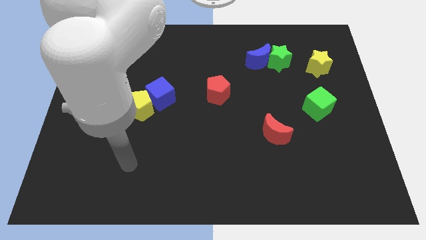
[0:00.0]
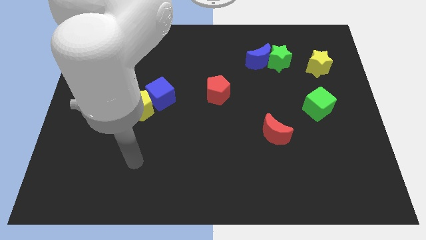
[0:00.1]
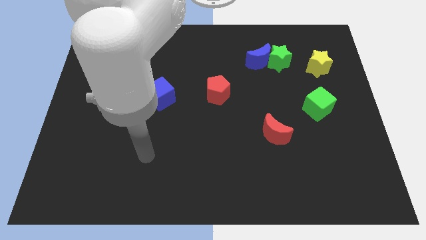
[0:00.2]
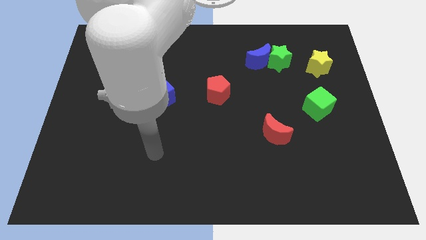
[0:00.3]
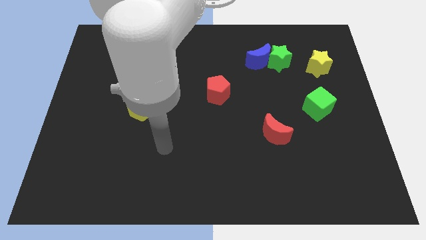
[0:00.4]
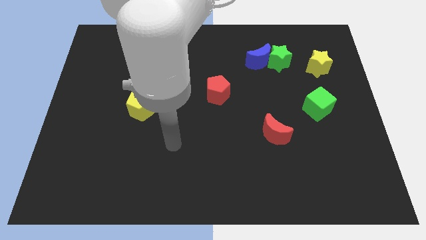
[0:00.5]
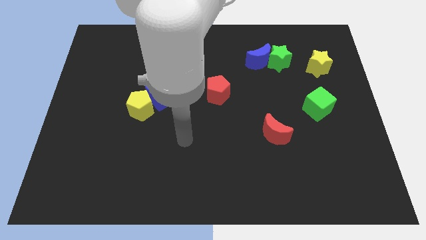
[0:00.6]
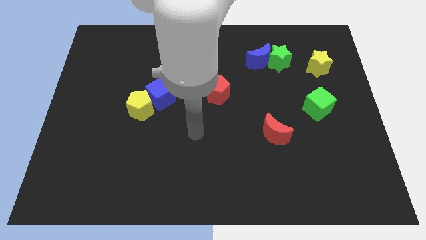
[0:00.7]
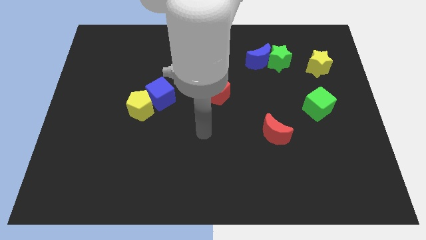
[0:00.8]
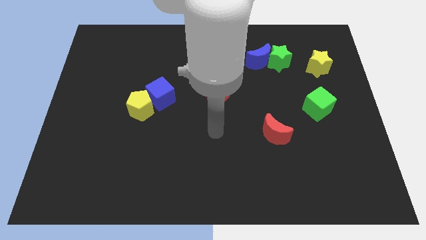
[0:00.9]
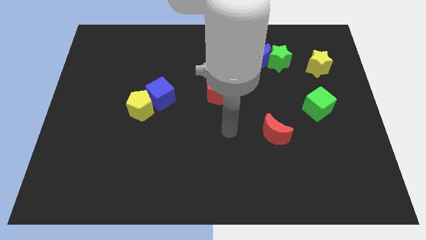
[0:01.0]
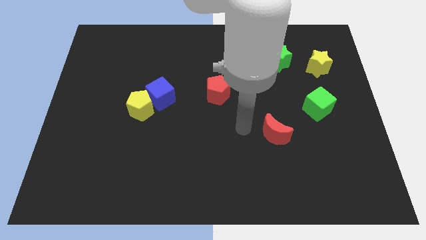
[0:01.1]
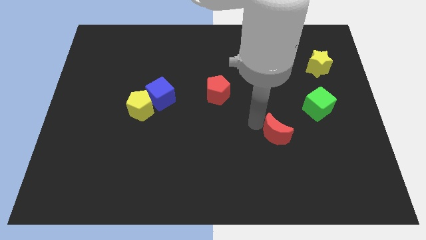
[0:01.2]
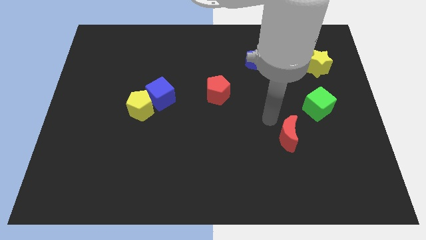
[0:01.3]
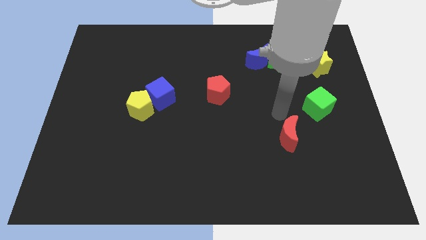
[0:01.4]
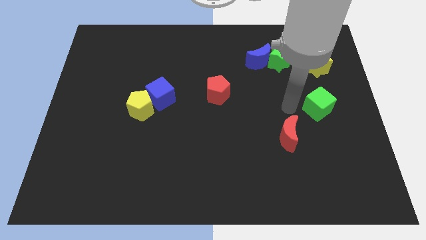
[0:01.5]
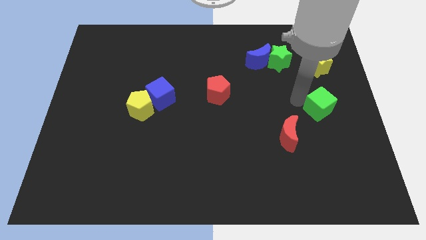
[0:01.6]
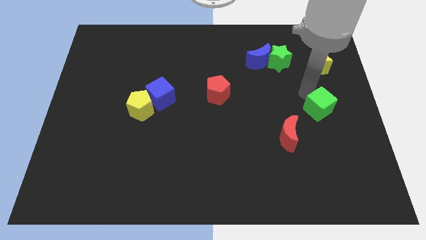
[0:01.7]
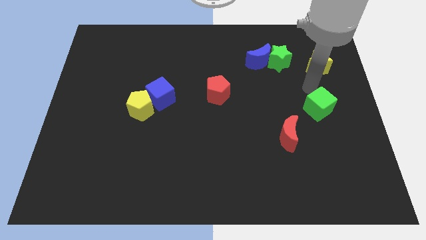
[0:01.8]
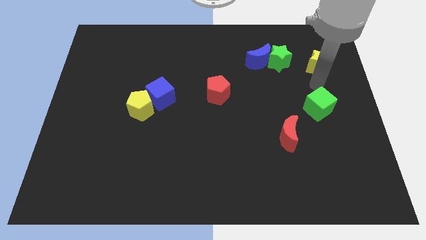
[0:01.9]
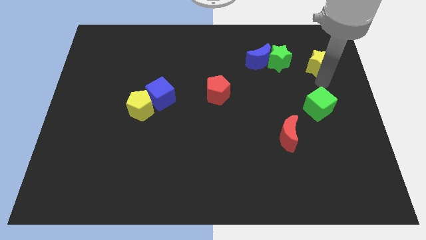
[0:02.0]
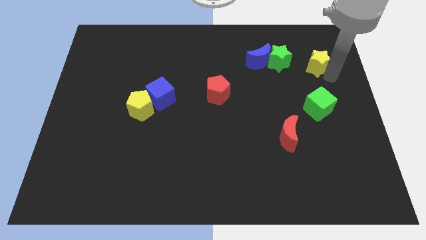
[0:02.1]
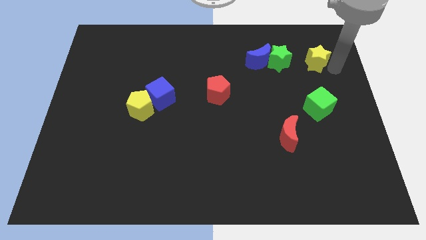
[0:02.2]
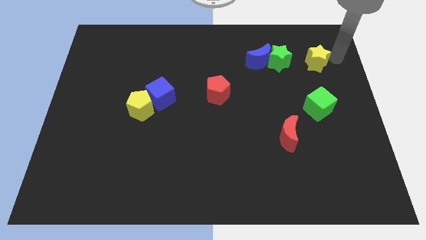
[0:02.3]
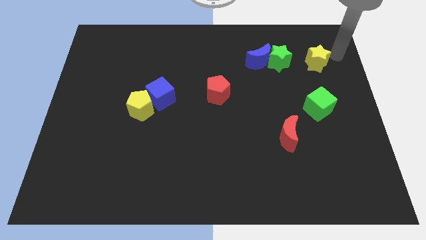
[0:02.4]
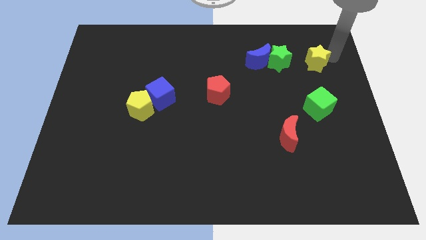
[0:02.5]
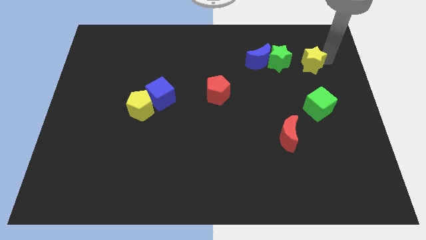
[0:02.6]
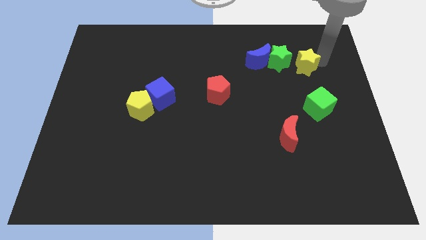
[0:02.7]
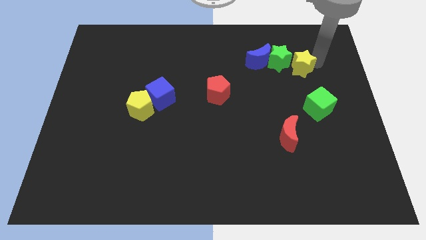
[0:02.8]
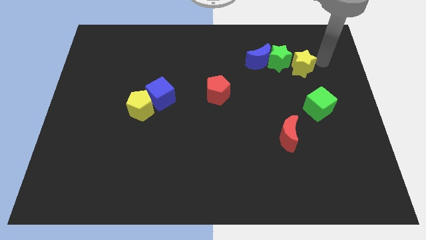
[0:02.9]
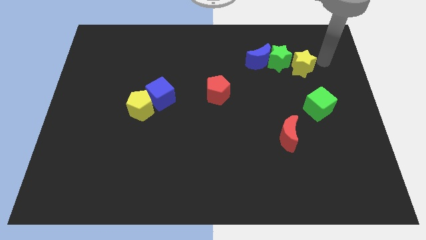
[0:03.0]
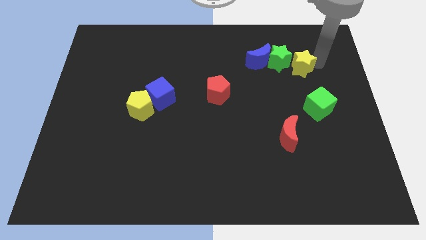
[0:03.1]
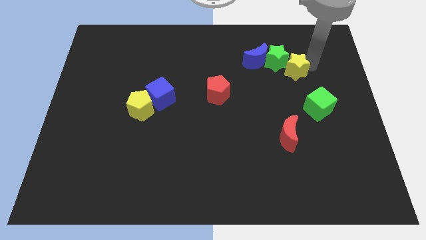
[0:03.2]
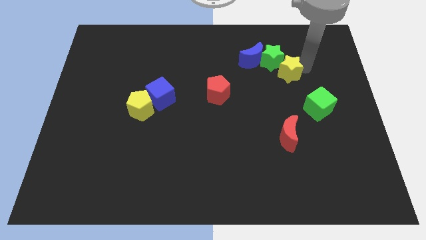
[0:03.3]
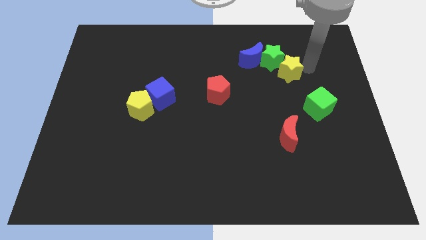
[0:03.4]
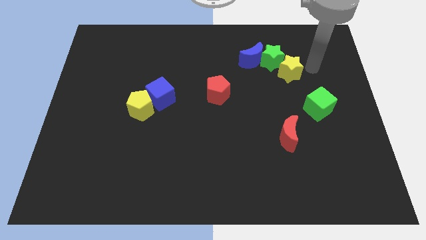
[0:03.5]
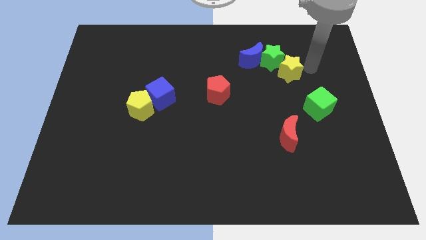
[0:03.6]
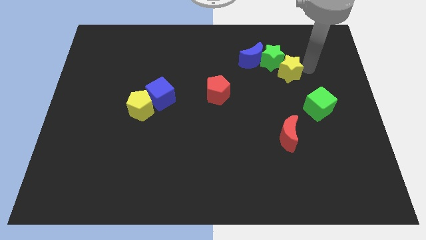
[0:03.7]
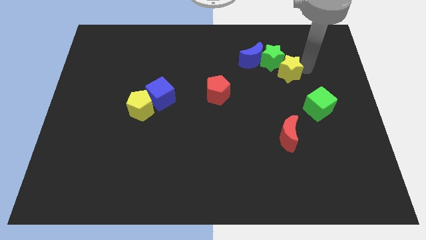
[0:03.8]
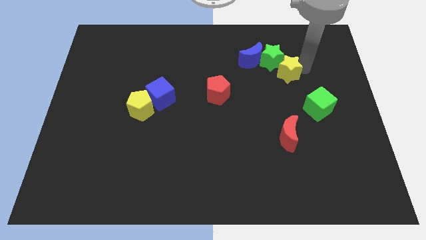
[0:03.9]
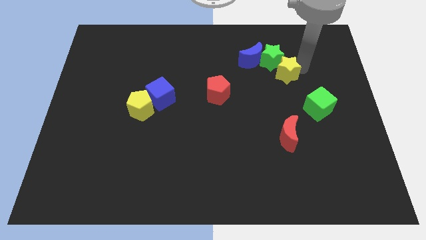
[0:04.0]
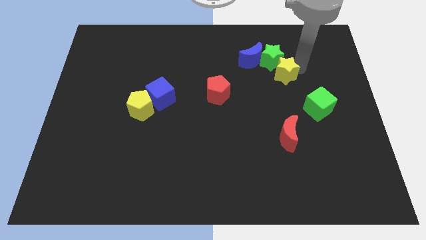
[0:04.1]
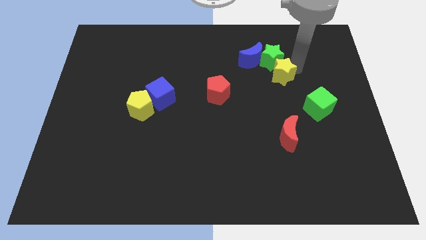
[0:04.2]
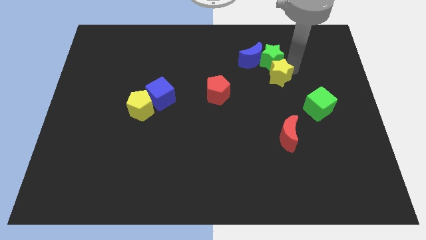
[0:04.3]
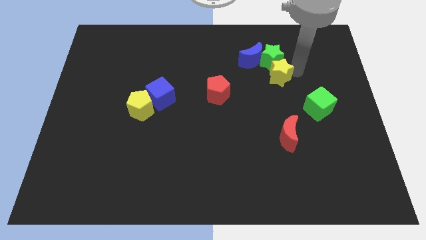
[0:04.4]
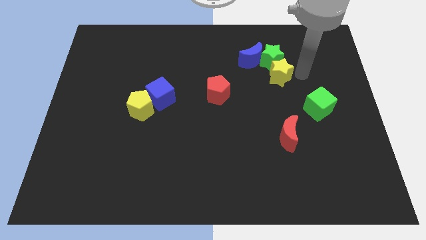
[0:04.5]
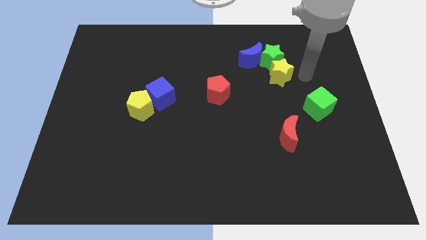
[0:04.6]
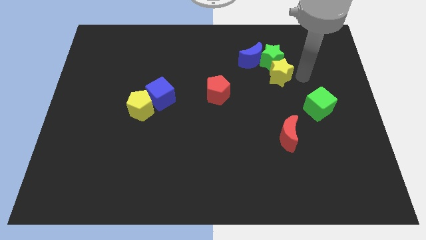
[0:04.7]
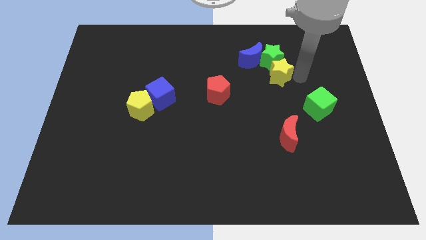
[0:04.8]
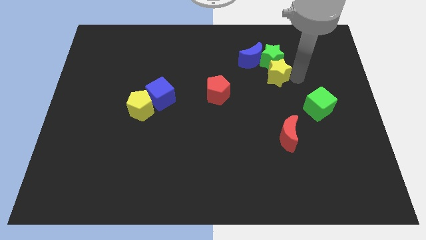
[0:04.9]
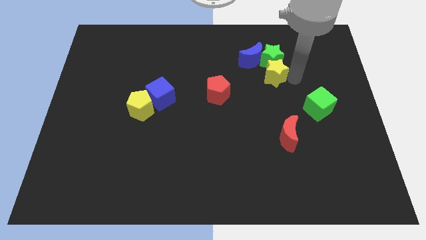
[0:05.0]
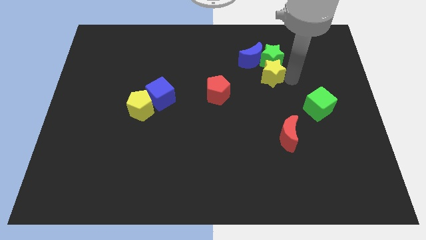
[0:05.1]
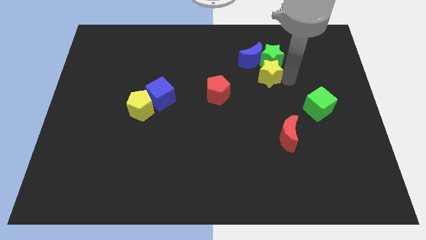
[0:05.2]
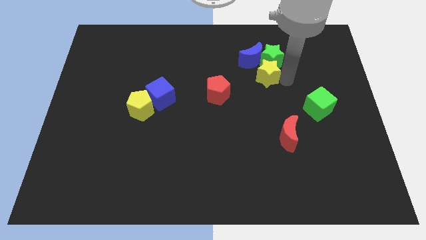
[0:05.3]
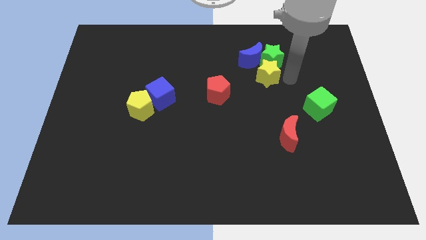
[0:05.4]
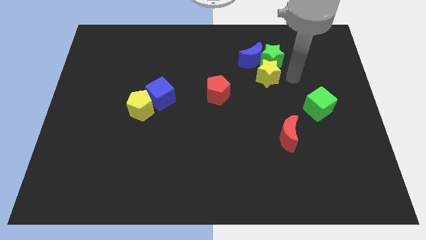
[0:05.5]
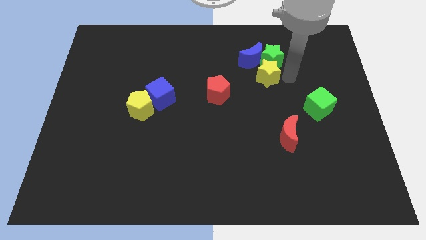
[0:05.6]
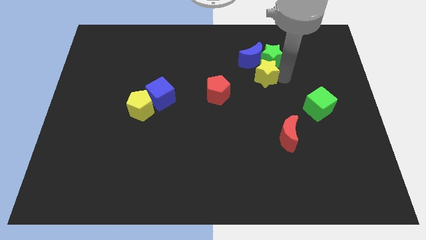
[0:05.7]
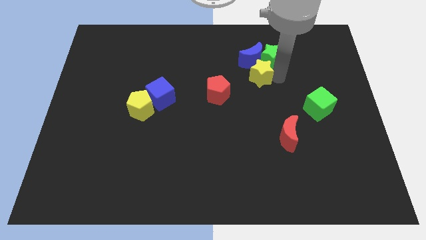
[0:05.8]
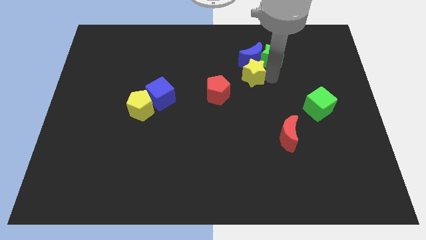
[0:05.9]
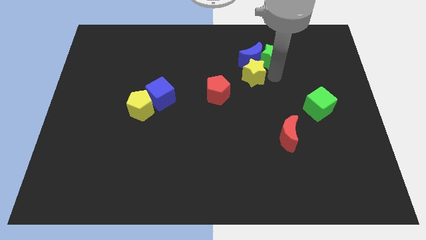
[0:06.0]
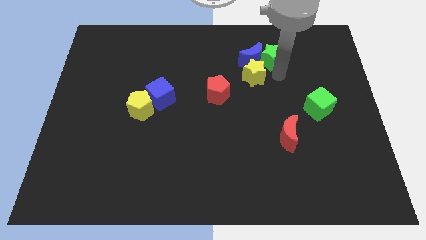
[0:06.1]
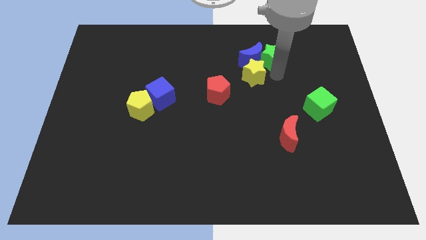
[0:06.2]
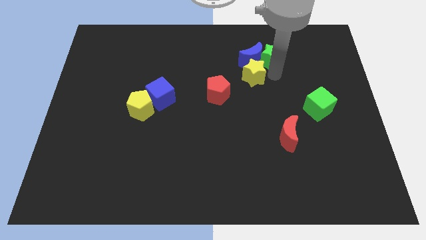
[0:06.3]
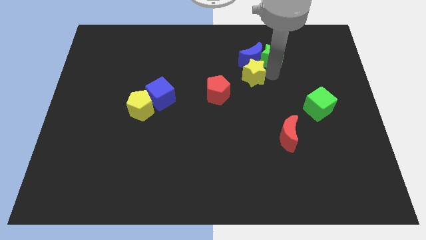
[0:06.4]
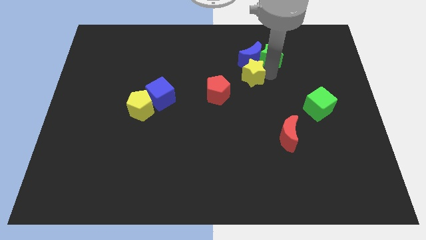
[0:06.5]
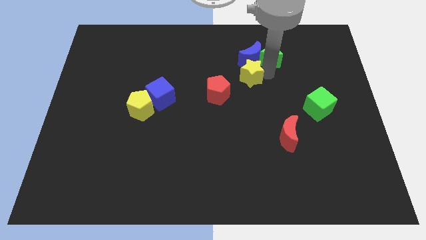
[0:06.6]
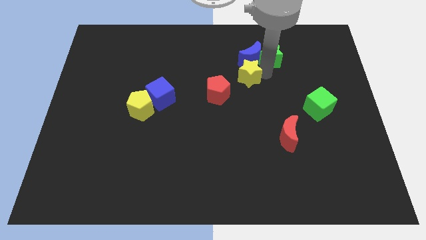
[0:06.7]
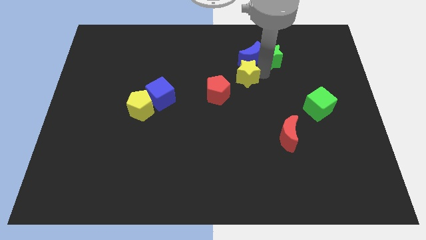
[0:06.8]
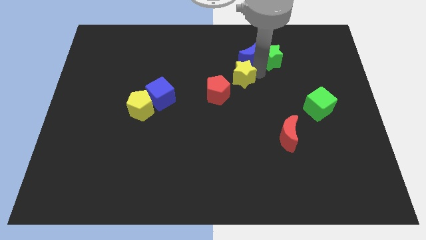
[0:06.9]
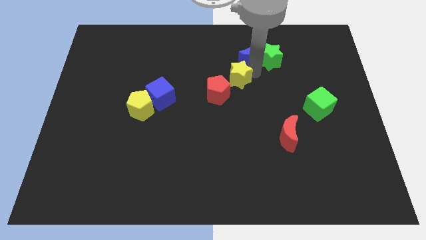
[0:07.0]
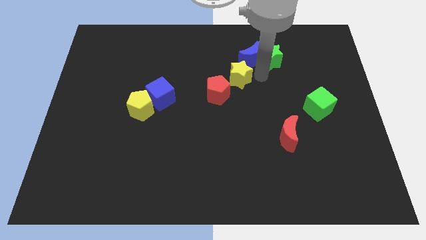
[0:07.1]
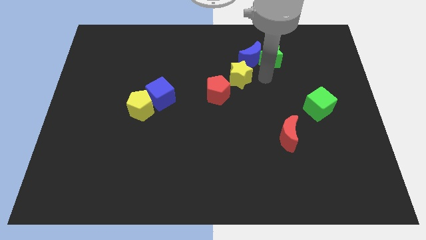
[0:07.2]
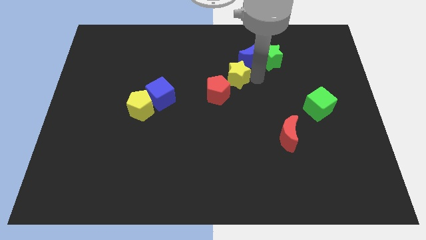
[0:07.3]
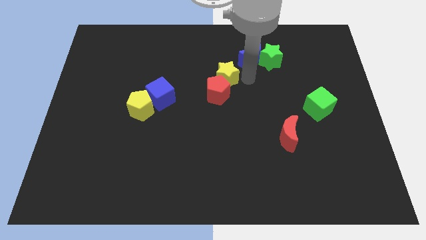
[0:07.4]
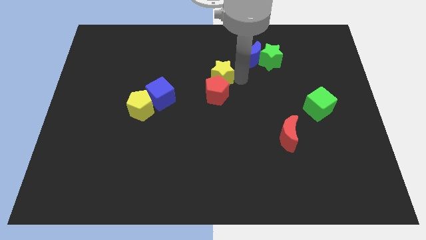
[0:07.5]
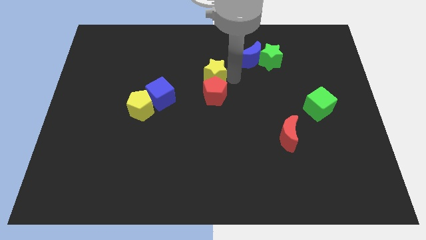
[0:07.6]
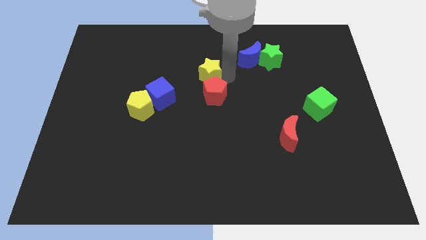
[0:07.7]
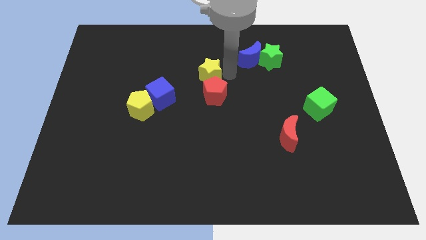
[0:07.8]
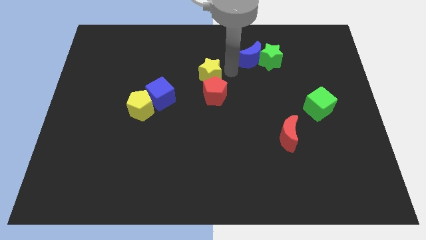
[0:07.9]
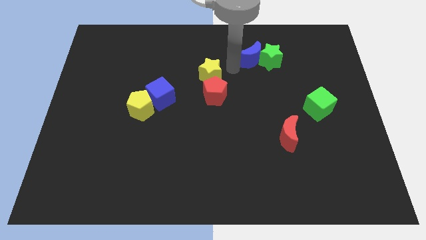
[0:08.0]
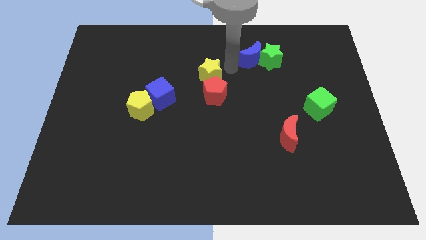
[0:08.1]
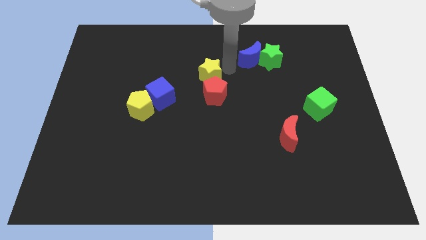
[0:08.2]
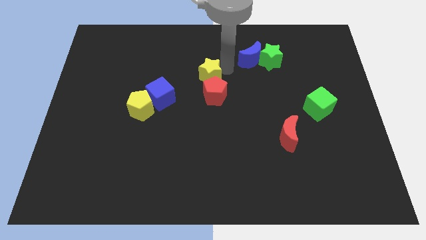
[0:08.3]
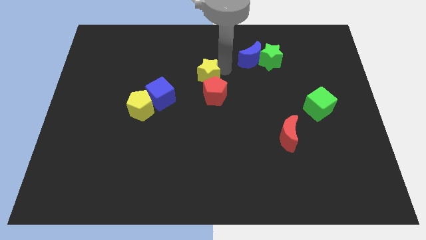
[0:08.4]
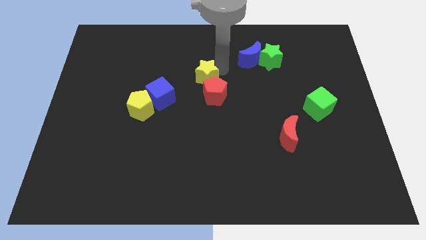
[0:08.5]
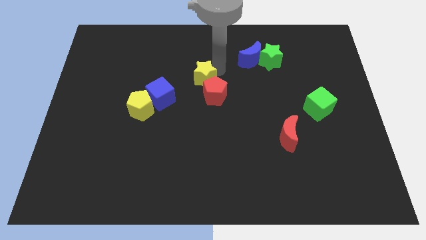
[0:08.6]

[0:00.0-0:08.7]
put the yellow star diagonally up and to the right of the blue cube
